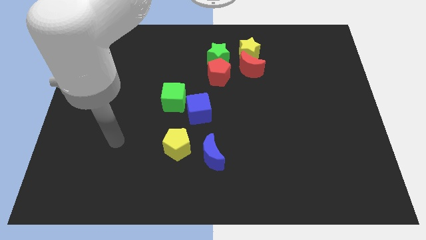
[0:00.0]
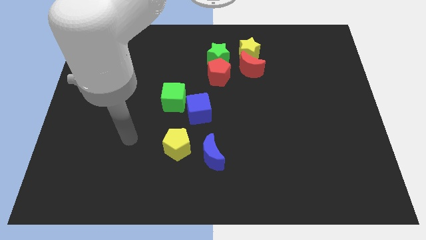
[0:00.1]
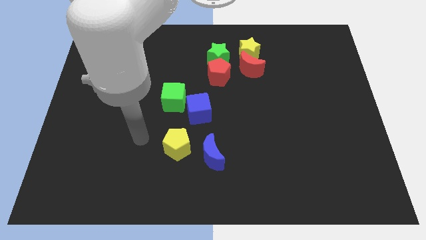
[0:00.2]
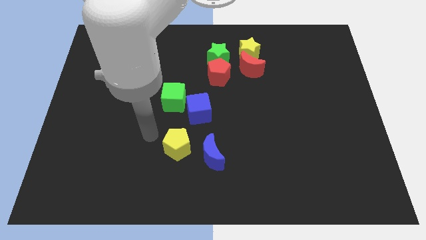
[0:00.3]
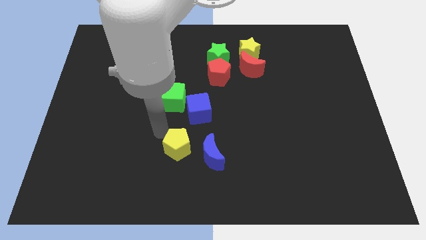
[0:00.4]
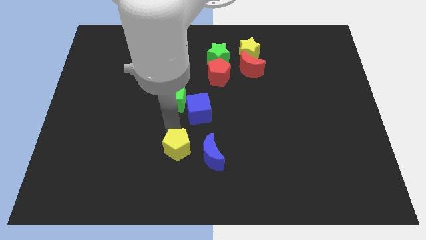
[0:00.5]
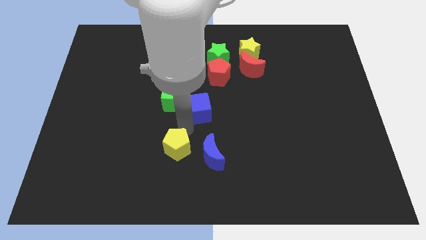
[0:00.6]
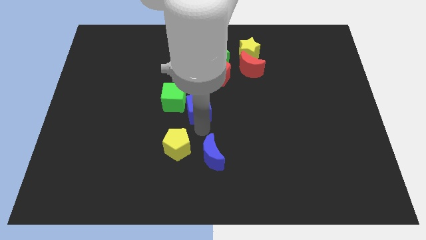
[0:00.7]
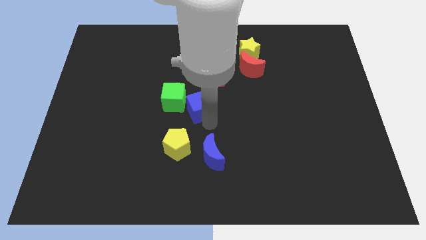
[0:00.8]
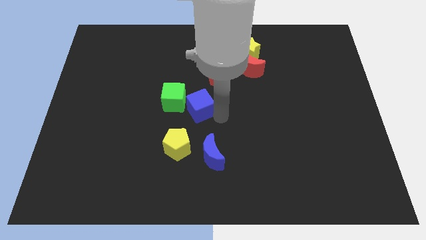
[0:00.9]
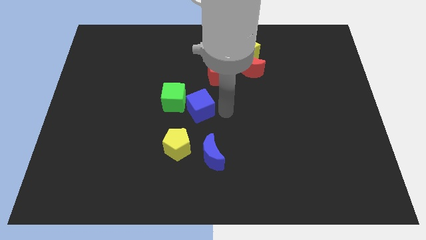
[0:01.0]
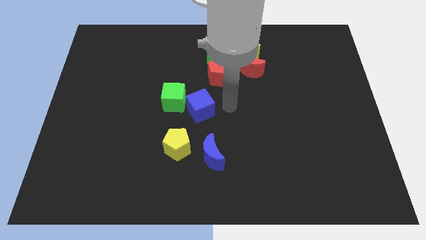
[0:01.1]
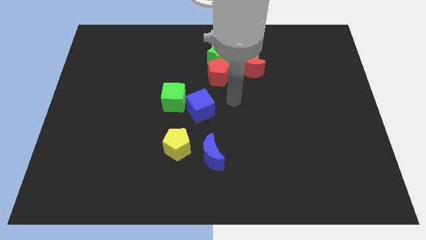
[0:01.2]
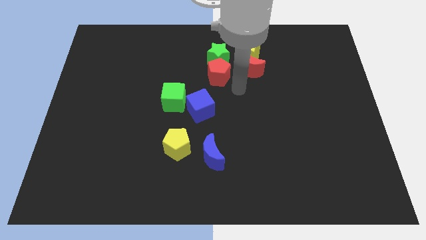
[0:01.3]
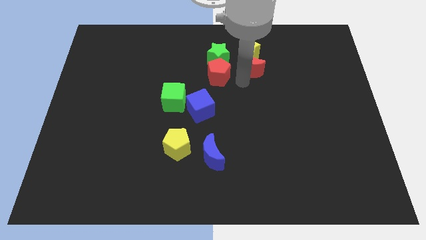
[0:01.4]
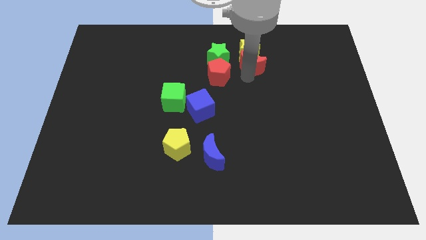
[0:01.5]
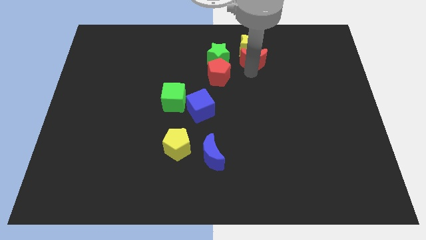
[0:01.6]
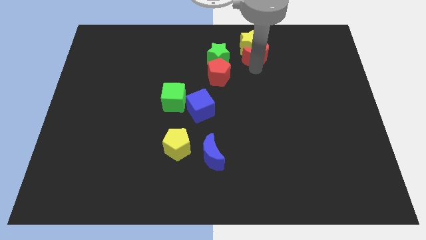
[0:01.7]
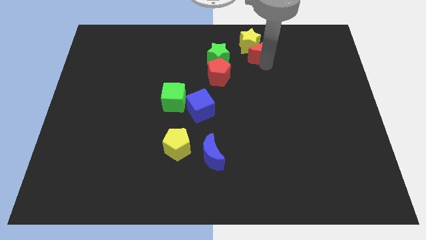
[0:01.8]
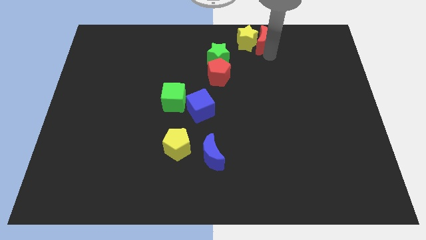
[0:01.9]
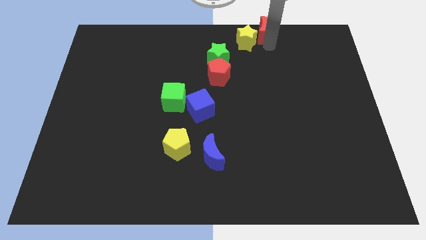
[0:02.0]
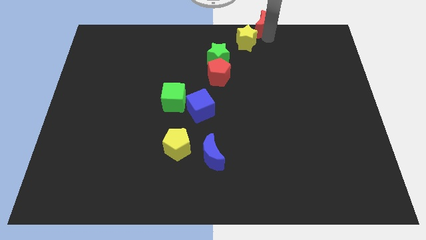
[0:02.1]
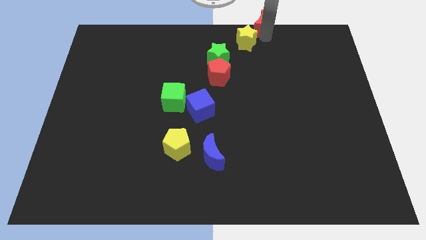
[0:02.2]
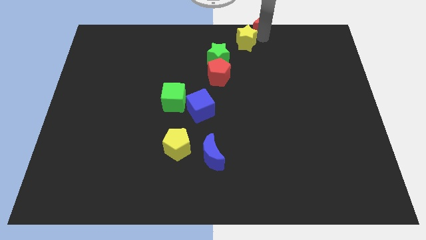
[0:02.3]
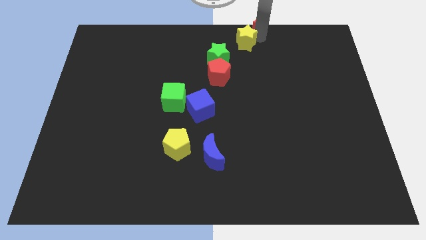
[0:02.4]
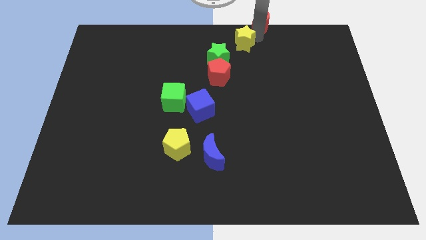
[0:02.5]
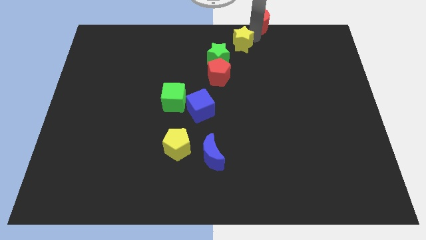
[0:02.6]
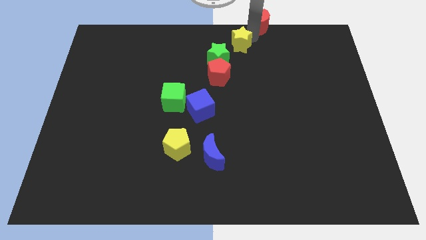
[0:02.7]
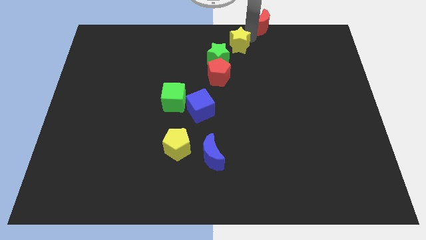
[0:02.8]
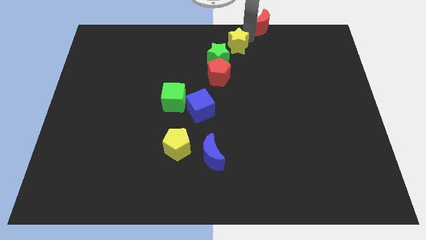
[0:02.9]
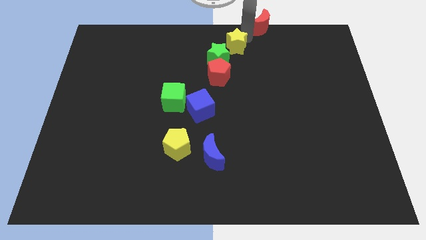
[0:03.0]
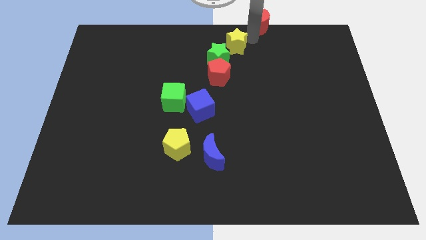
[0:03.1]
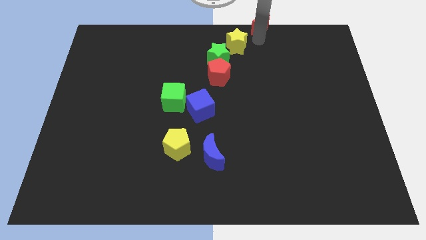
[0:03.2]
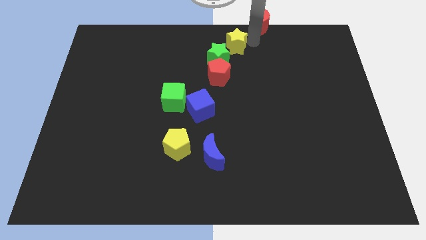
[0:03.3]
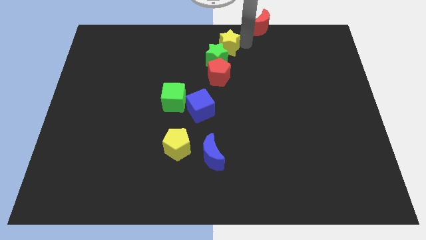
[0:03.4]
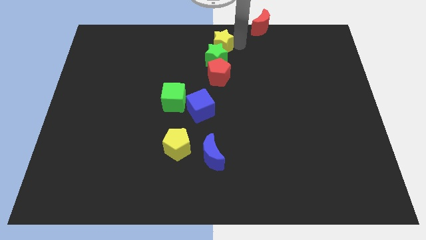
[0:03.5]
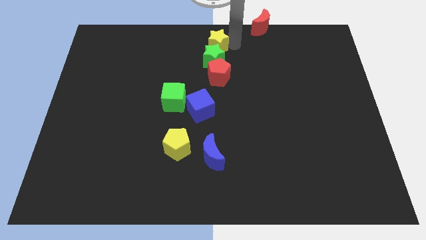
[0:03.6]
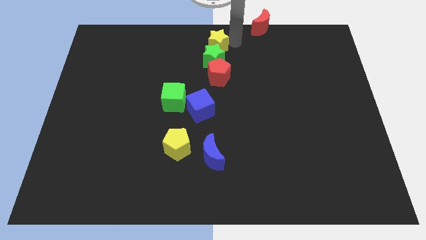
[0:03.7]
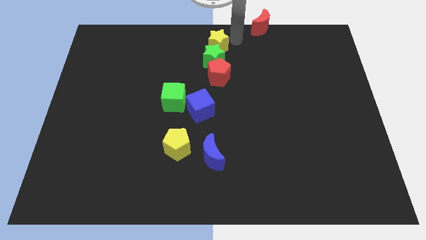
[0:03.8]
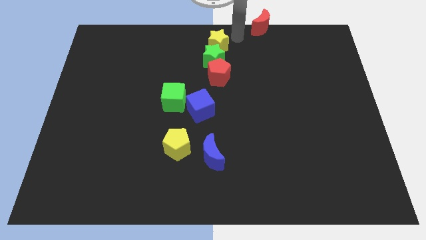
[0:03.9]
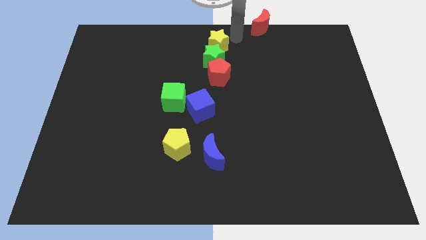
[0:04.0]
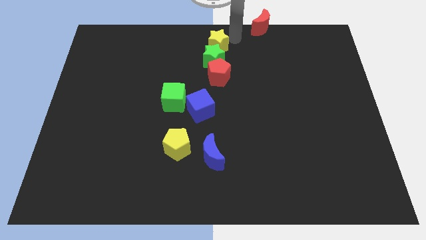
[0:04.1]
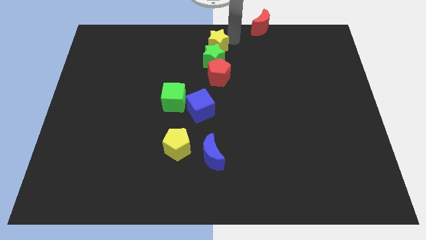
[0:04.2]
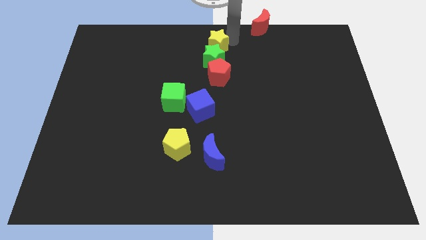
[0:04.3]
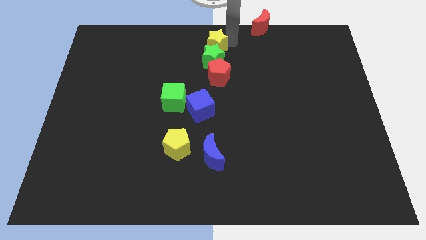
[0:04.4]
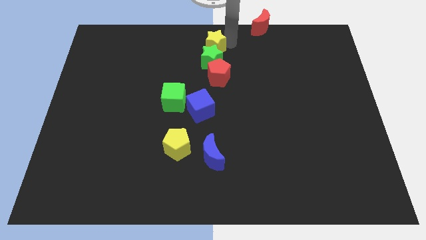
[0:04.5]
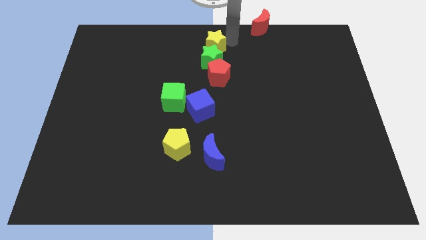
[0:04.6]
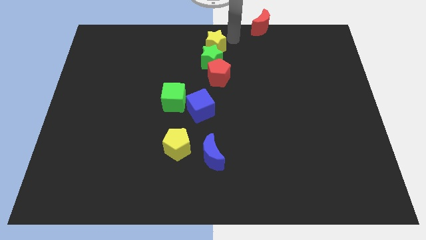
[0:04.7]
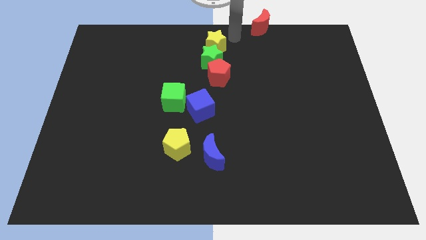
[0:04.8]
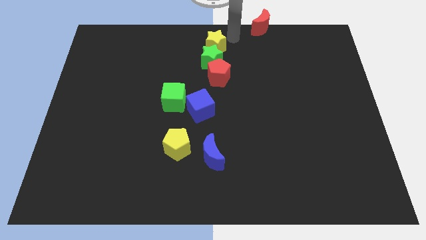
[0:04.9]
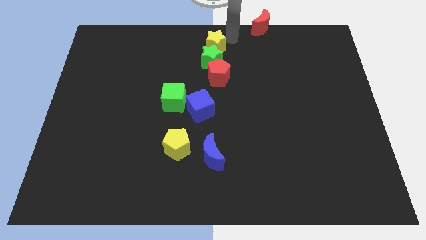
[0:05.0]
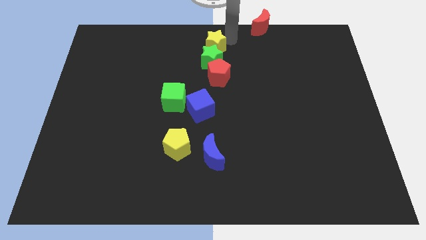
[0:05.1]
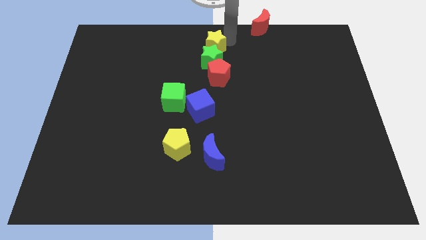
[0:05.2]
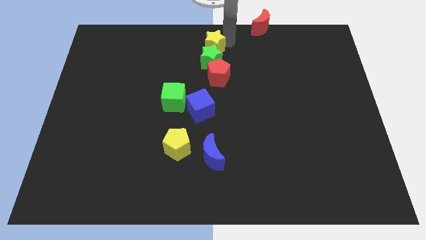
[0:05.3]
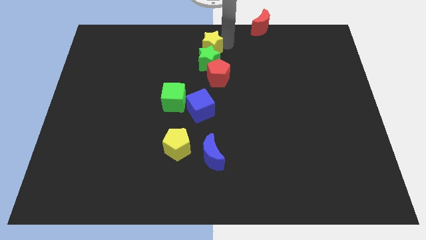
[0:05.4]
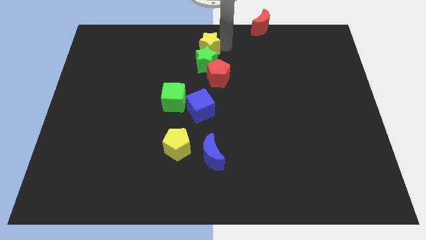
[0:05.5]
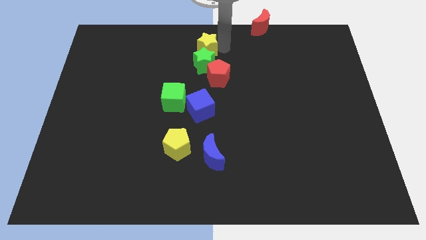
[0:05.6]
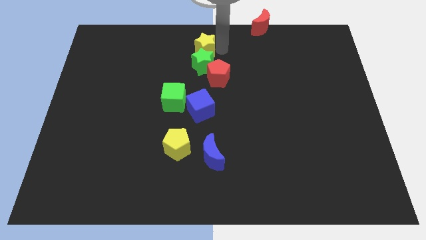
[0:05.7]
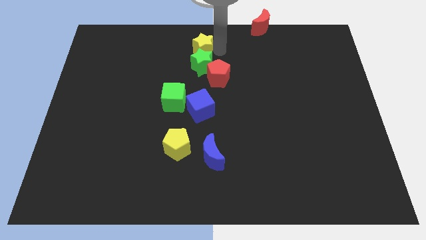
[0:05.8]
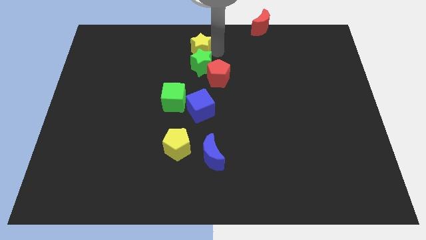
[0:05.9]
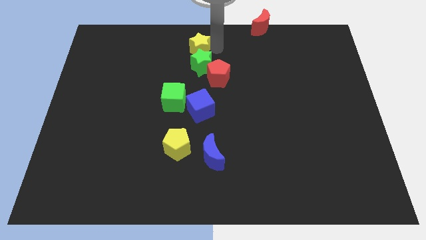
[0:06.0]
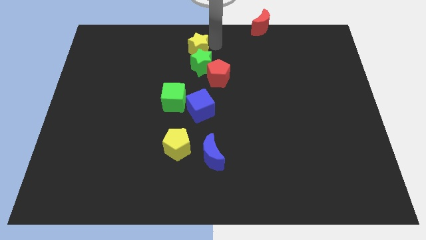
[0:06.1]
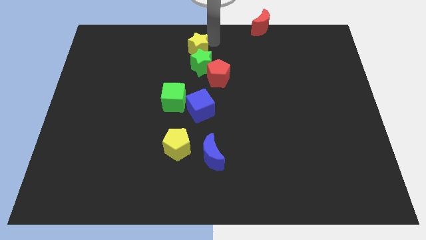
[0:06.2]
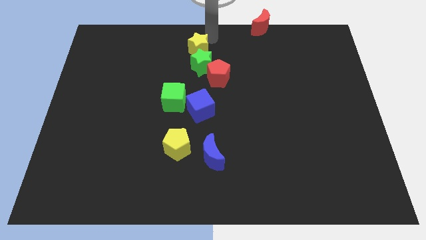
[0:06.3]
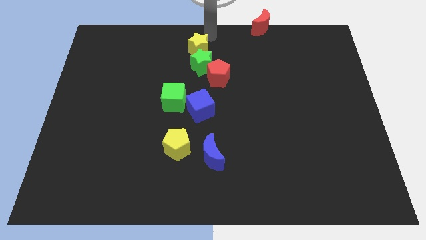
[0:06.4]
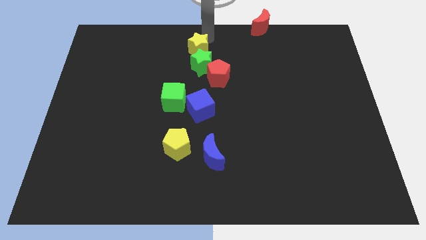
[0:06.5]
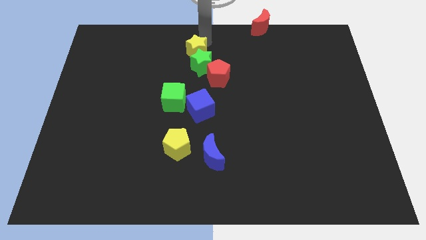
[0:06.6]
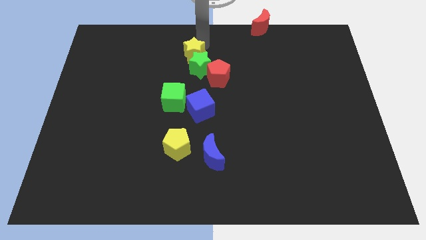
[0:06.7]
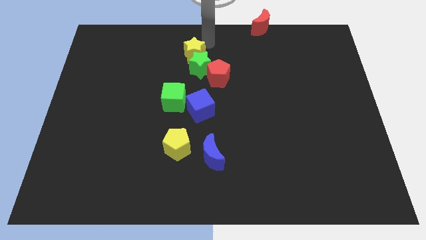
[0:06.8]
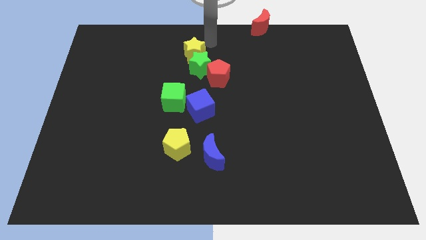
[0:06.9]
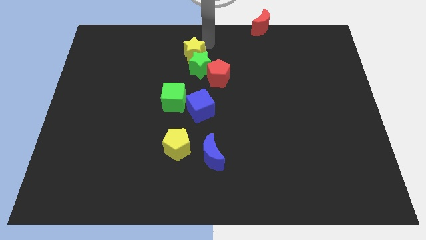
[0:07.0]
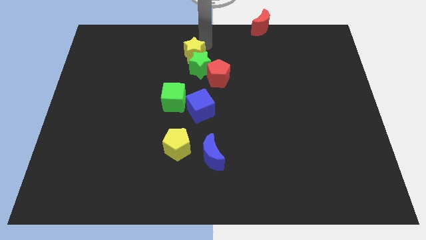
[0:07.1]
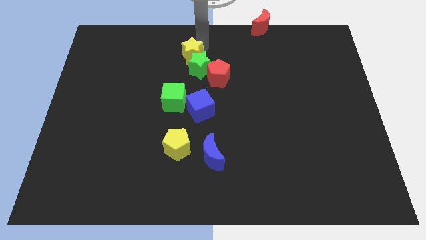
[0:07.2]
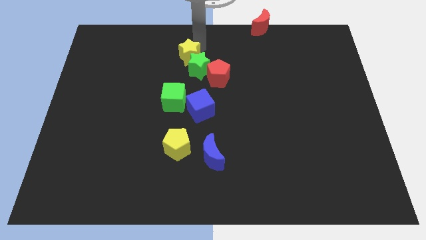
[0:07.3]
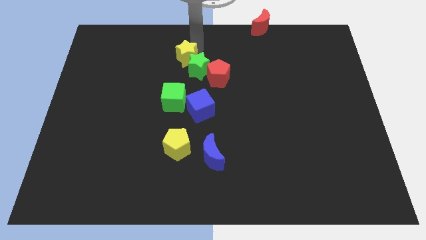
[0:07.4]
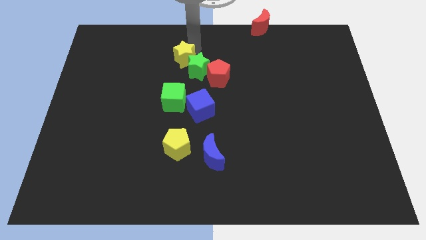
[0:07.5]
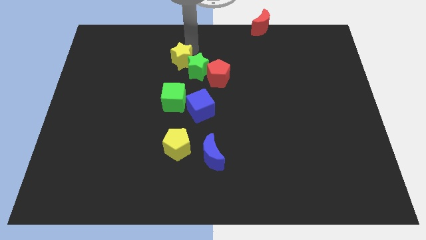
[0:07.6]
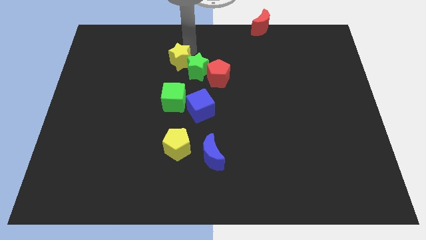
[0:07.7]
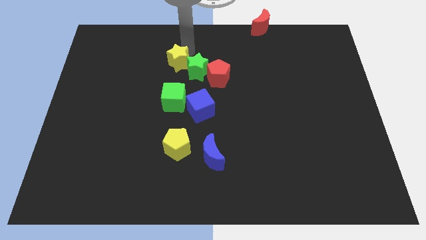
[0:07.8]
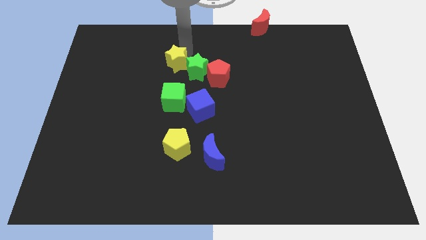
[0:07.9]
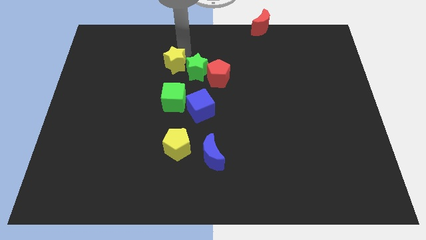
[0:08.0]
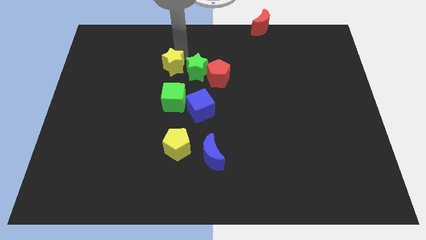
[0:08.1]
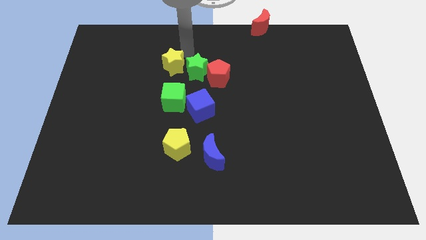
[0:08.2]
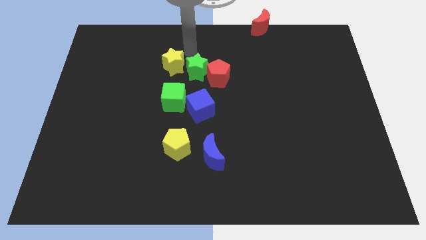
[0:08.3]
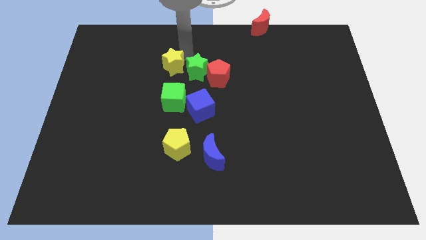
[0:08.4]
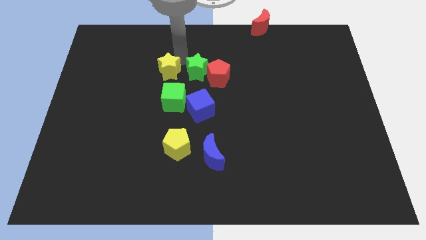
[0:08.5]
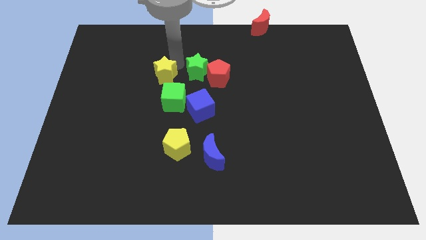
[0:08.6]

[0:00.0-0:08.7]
put the yellow star to the top left side of the green cube
